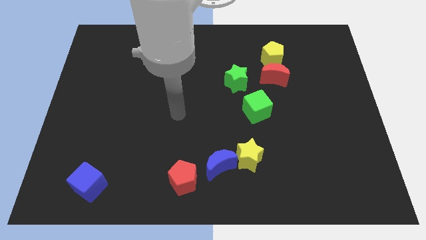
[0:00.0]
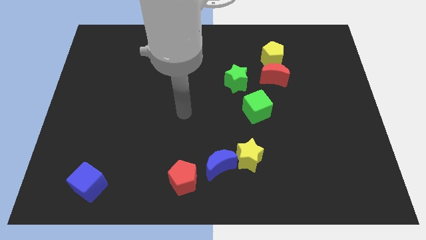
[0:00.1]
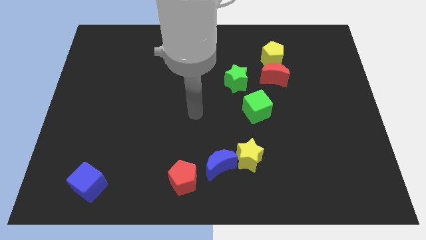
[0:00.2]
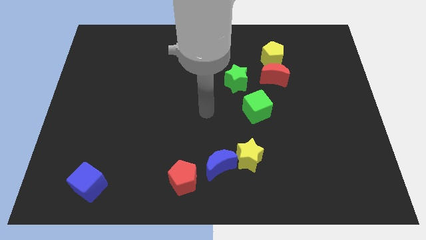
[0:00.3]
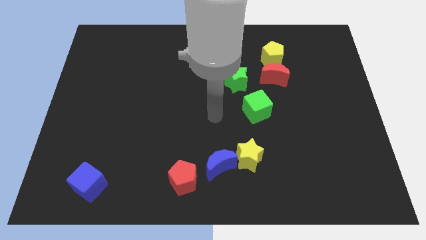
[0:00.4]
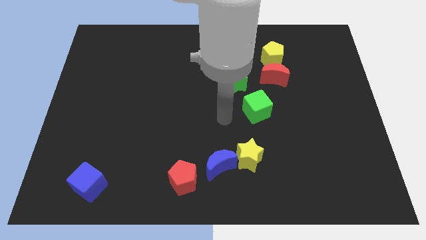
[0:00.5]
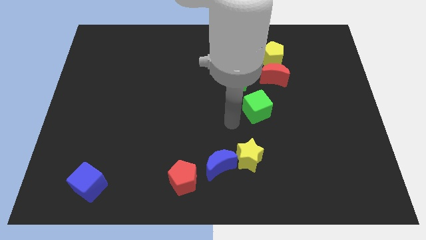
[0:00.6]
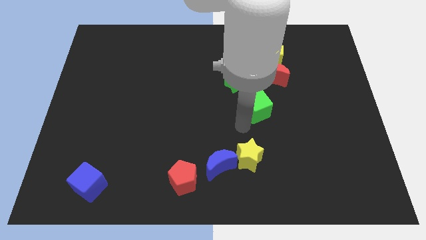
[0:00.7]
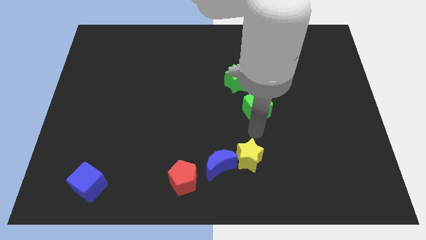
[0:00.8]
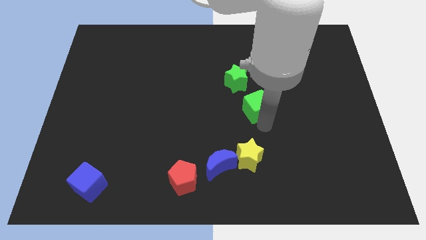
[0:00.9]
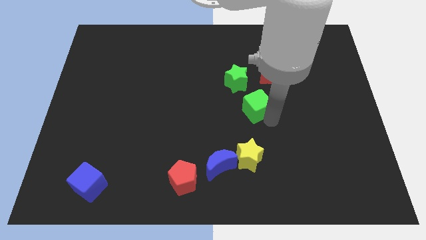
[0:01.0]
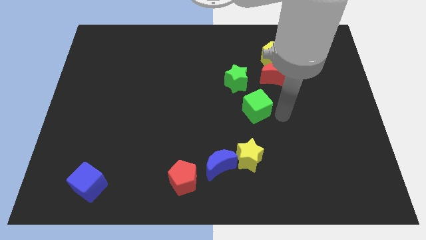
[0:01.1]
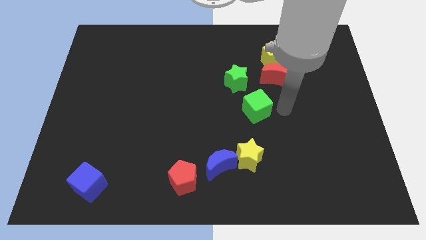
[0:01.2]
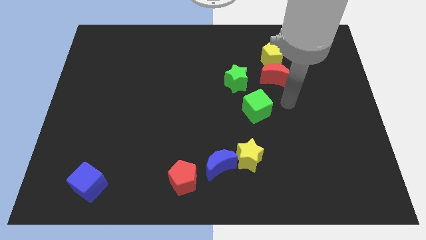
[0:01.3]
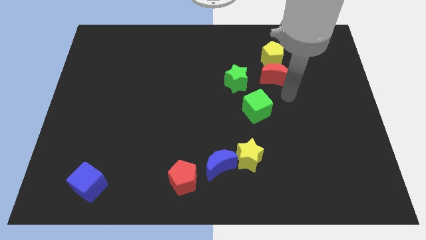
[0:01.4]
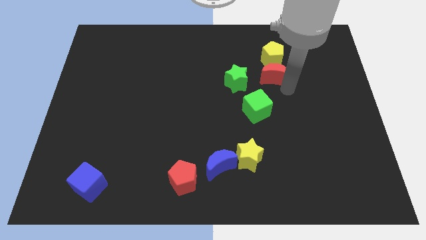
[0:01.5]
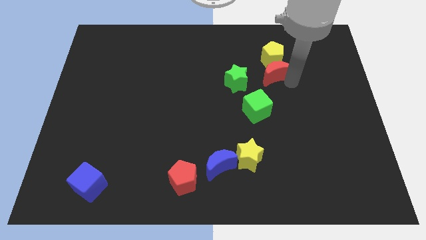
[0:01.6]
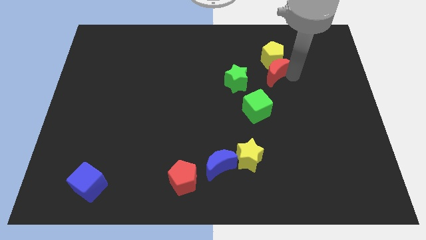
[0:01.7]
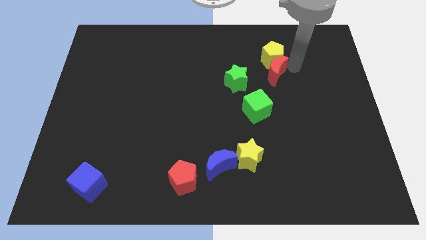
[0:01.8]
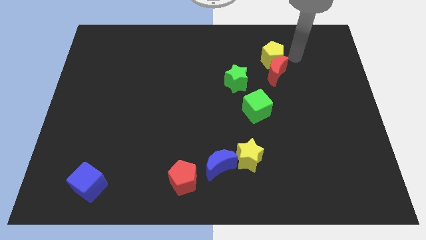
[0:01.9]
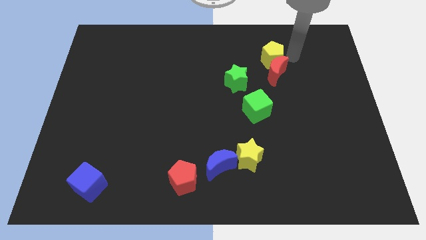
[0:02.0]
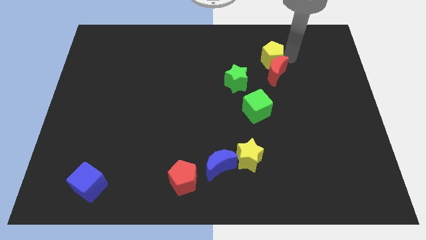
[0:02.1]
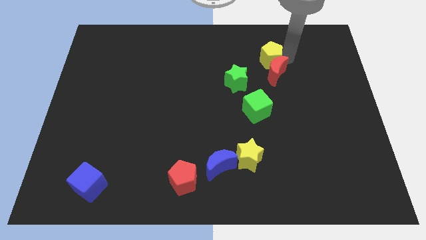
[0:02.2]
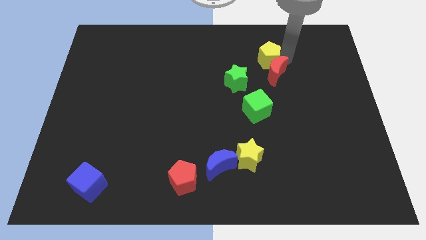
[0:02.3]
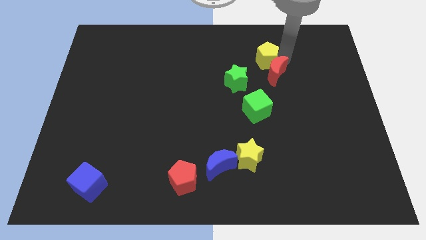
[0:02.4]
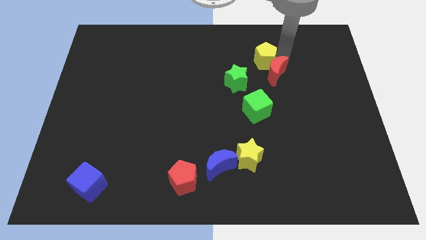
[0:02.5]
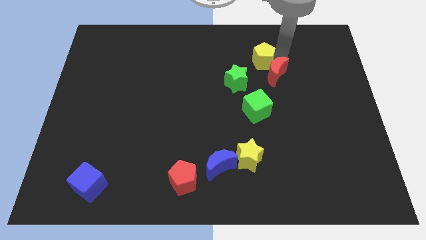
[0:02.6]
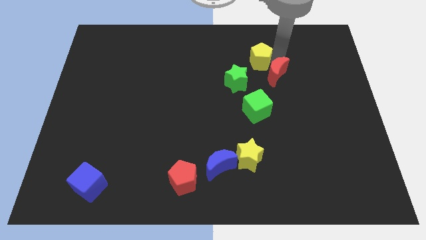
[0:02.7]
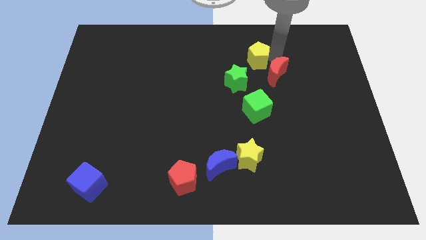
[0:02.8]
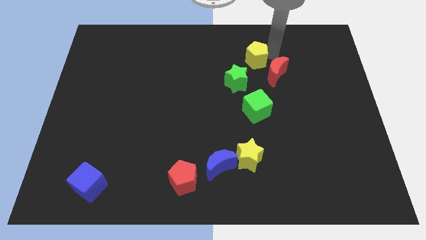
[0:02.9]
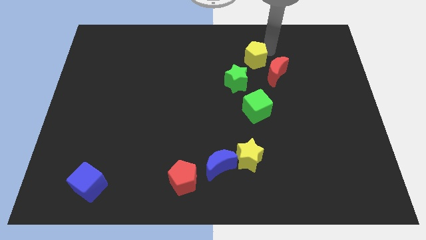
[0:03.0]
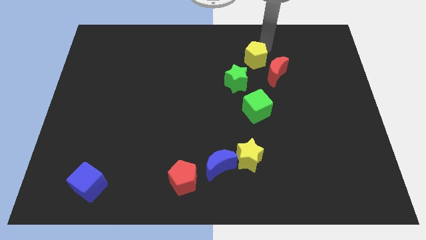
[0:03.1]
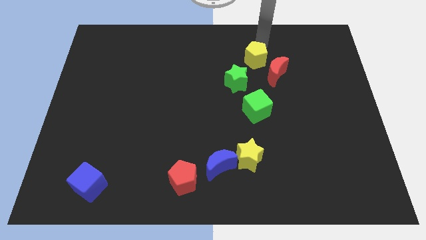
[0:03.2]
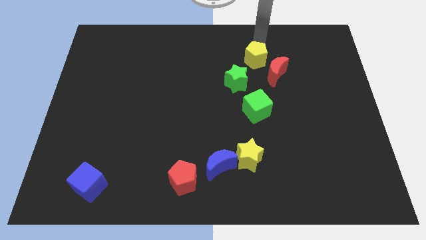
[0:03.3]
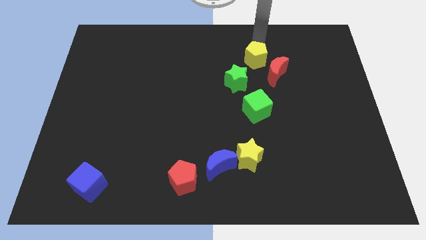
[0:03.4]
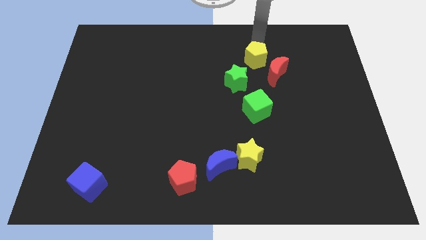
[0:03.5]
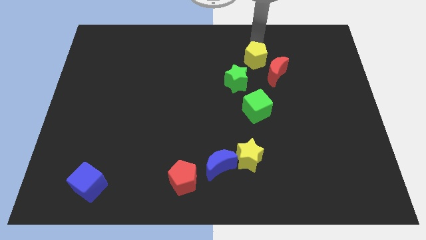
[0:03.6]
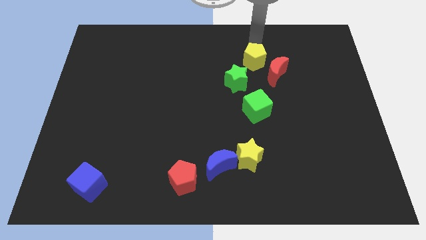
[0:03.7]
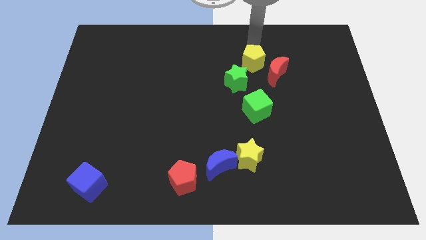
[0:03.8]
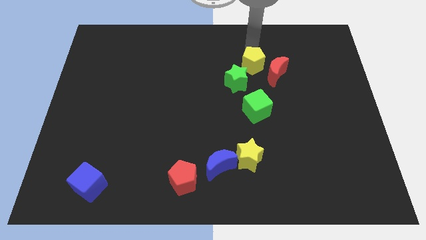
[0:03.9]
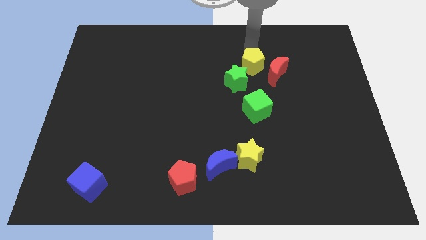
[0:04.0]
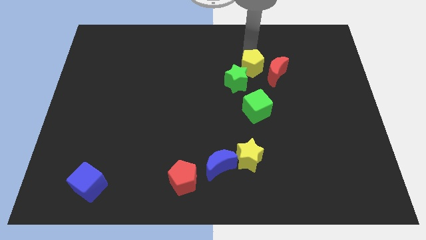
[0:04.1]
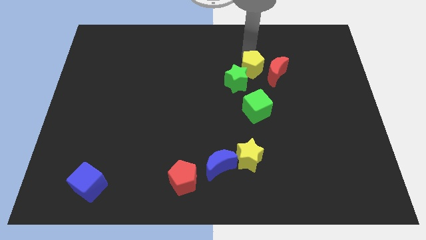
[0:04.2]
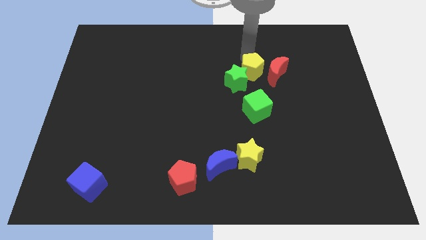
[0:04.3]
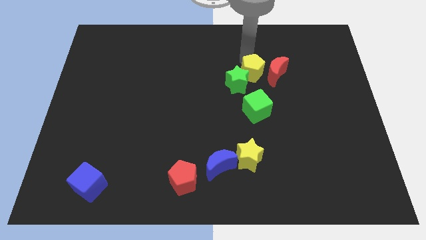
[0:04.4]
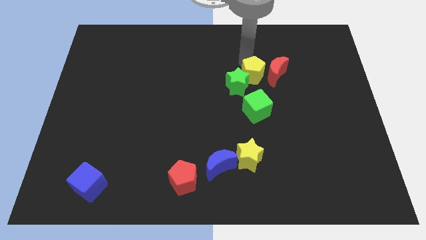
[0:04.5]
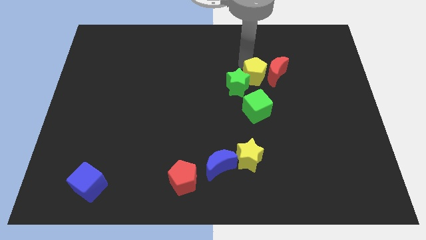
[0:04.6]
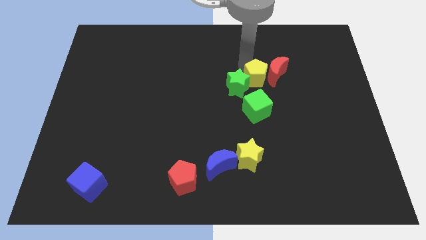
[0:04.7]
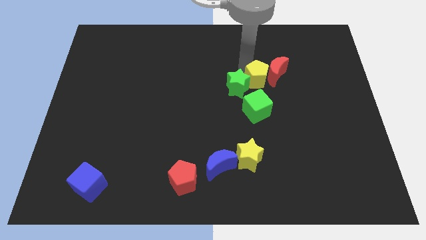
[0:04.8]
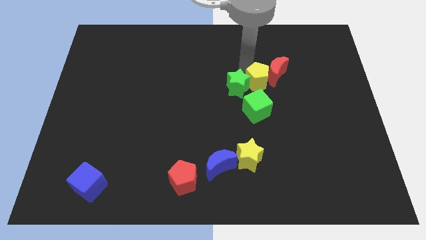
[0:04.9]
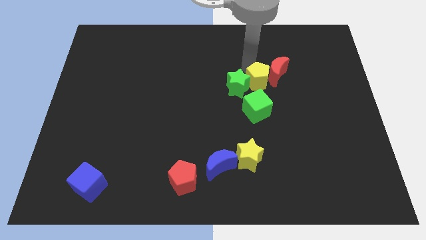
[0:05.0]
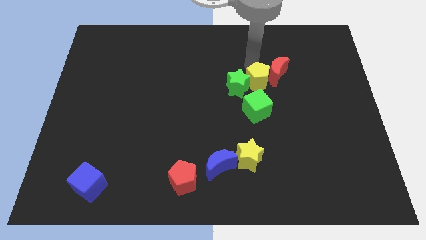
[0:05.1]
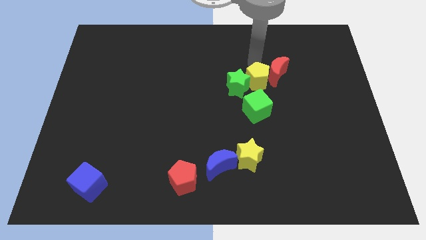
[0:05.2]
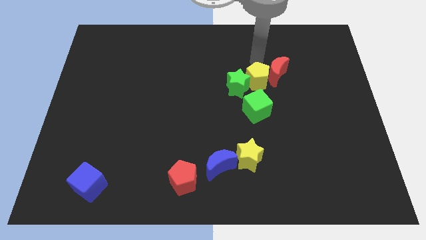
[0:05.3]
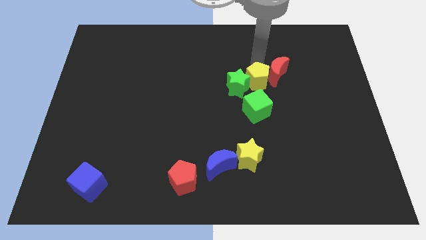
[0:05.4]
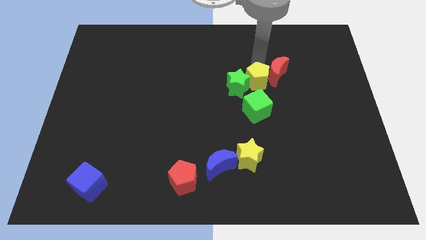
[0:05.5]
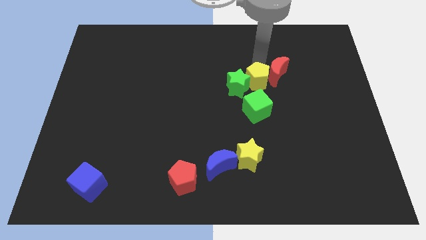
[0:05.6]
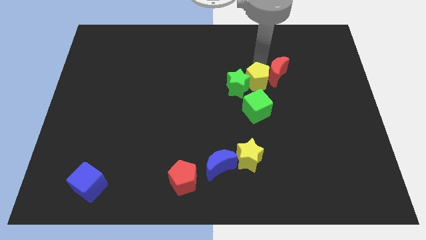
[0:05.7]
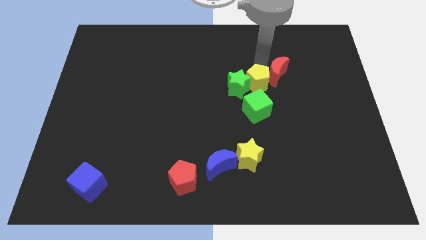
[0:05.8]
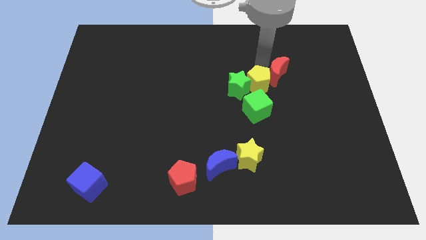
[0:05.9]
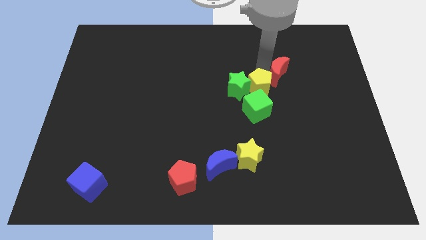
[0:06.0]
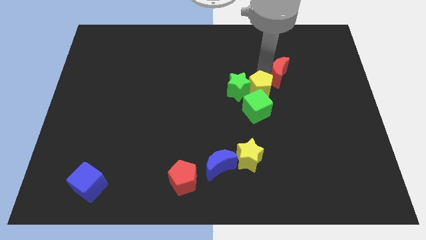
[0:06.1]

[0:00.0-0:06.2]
push the yellow pentagon next to the green cube

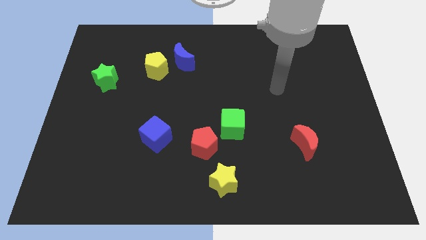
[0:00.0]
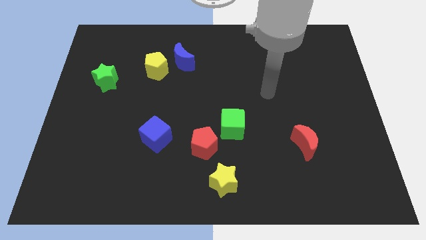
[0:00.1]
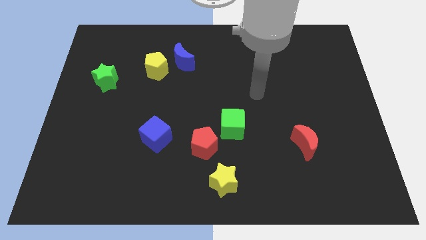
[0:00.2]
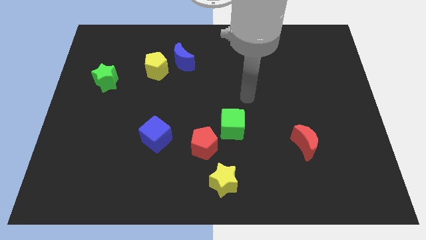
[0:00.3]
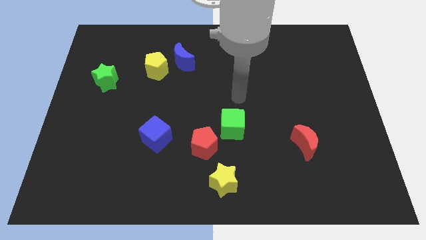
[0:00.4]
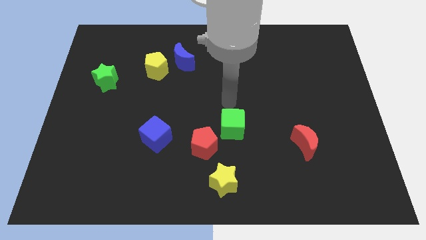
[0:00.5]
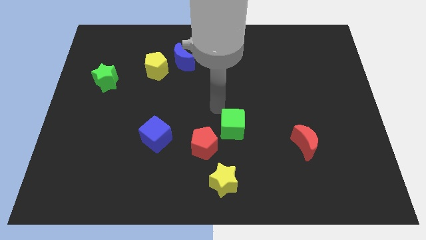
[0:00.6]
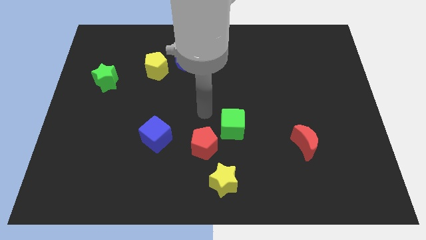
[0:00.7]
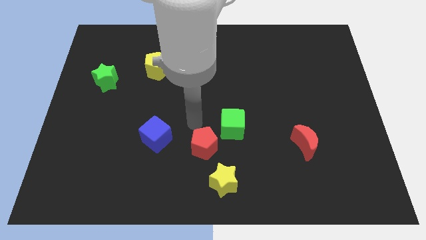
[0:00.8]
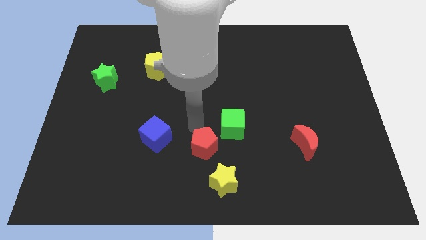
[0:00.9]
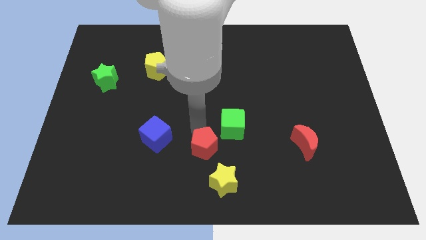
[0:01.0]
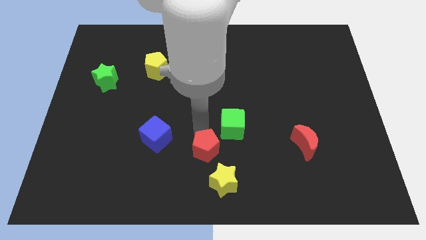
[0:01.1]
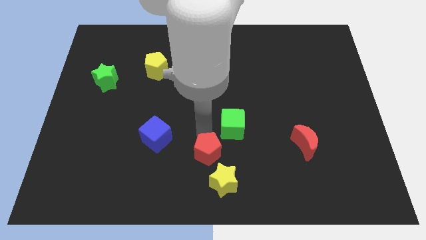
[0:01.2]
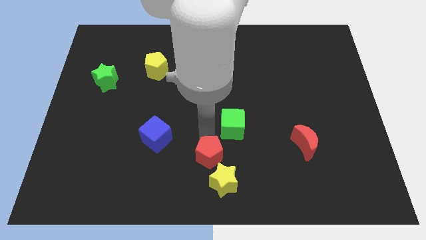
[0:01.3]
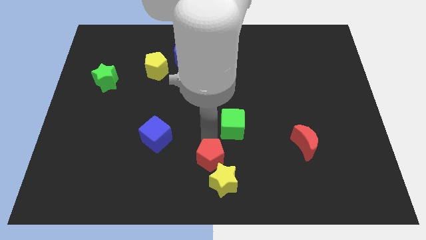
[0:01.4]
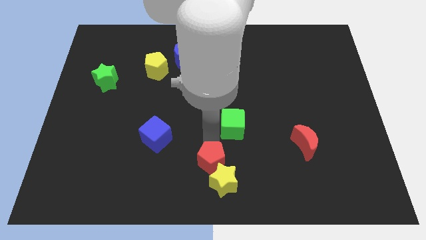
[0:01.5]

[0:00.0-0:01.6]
slide the red pentagon close to the yellow star
